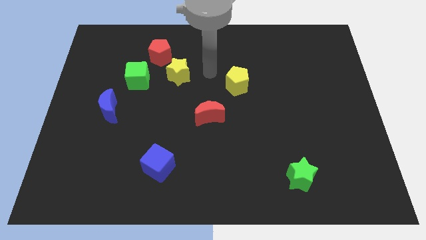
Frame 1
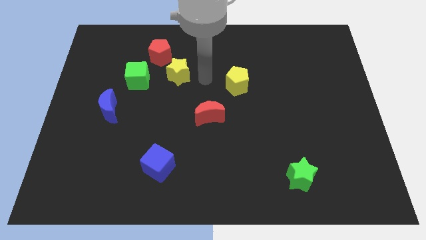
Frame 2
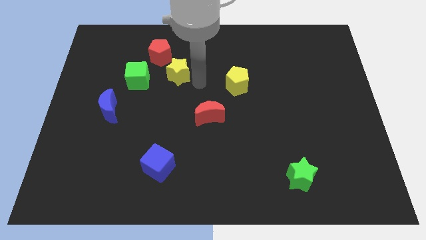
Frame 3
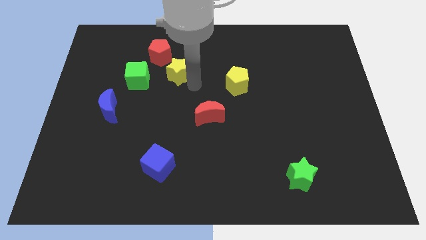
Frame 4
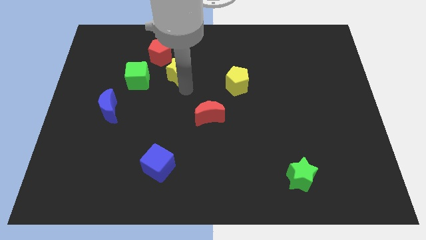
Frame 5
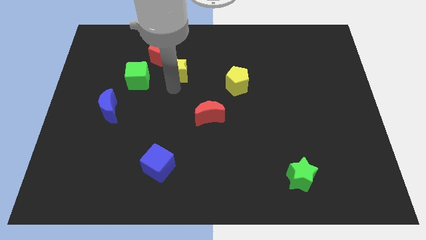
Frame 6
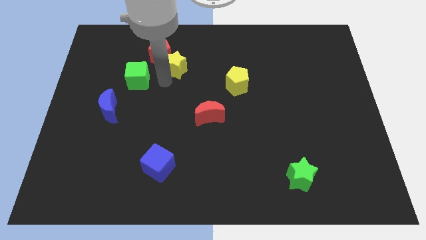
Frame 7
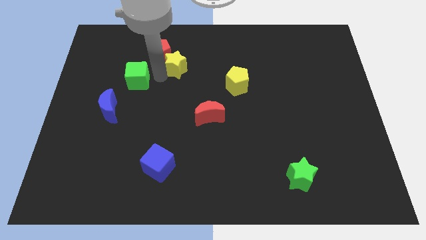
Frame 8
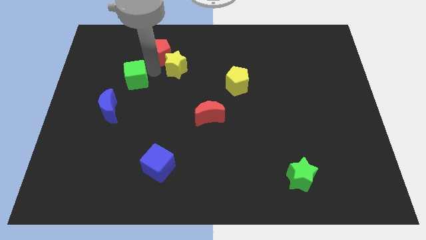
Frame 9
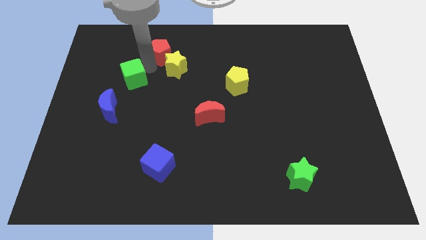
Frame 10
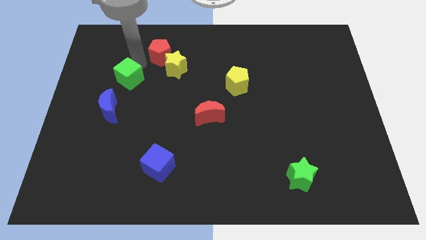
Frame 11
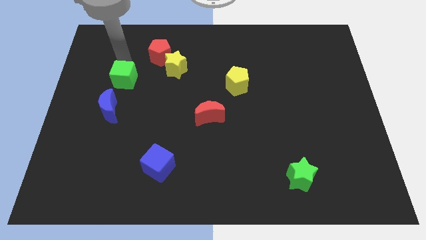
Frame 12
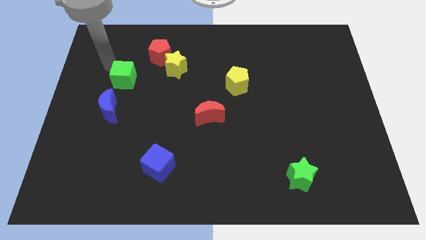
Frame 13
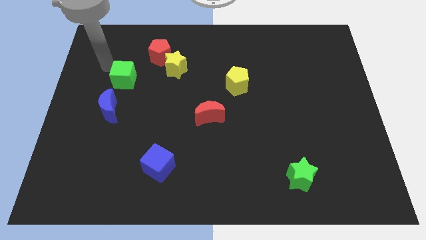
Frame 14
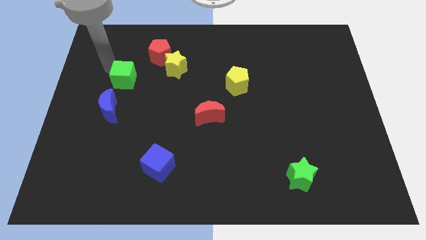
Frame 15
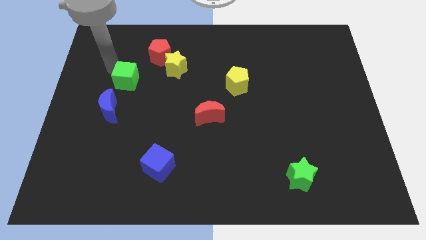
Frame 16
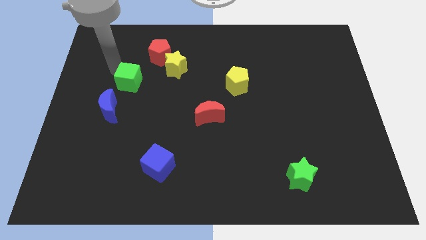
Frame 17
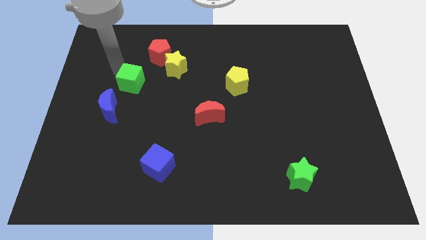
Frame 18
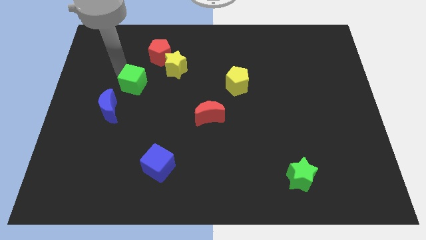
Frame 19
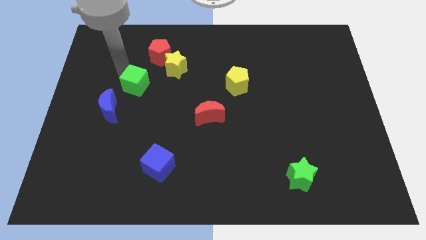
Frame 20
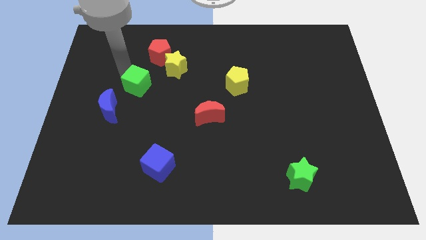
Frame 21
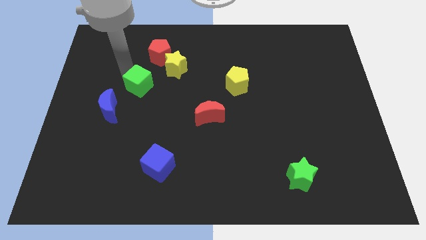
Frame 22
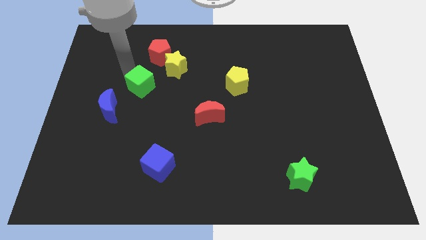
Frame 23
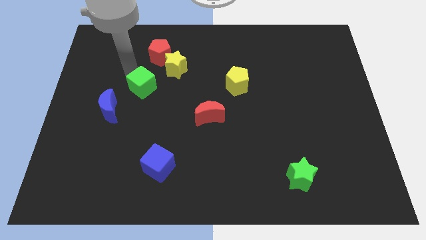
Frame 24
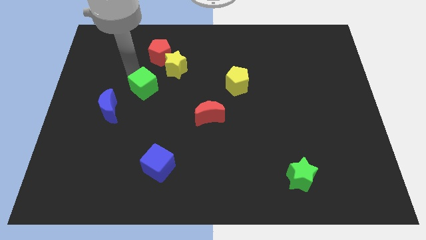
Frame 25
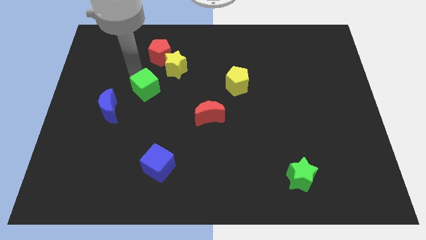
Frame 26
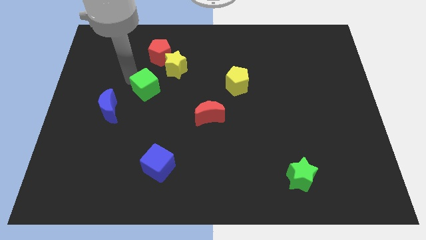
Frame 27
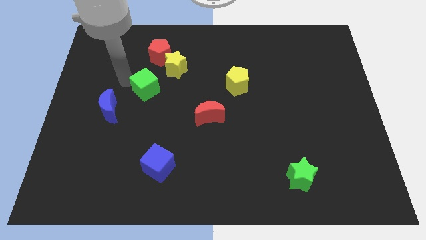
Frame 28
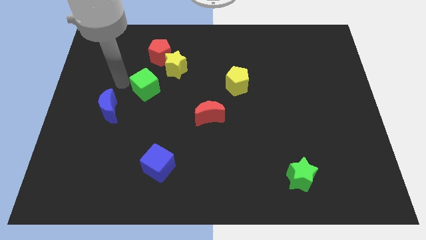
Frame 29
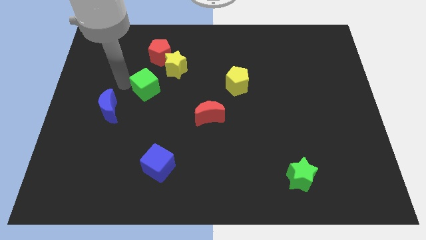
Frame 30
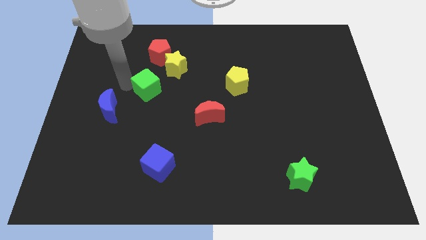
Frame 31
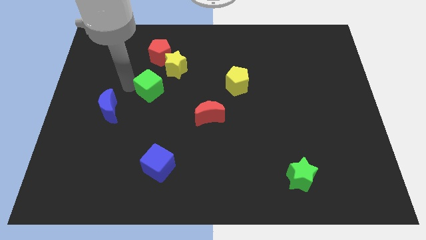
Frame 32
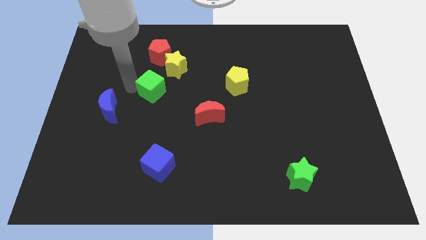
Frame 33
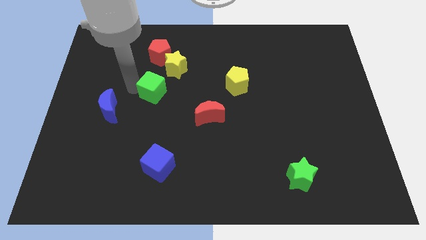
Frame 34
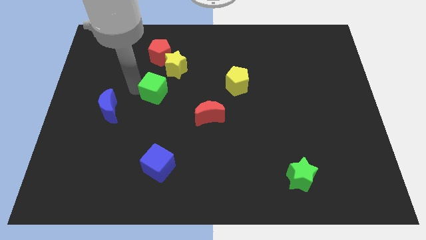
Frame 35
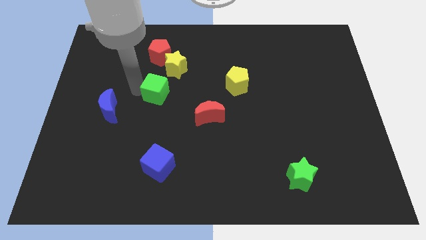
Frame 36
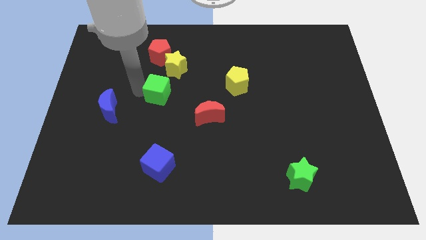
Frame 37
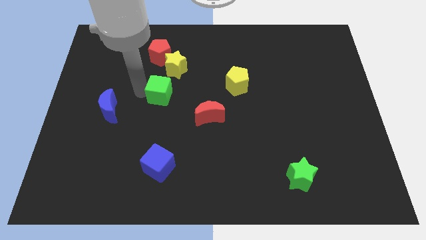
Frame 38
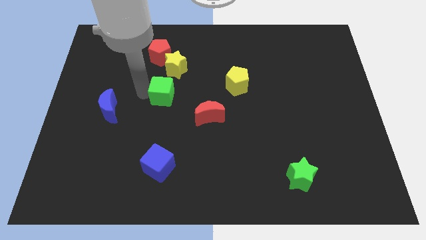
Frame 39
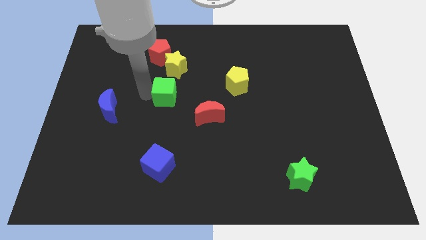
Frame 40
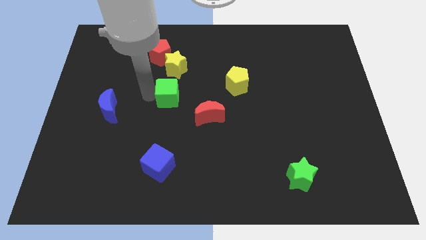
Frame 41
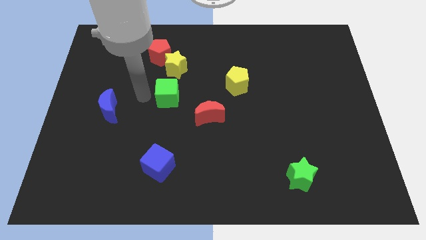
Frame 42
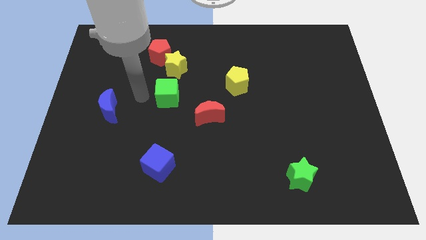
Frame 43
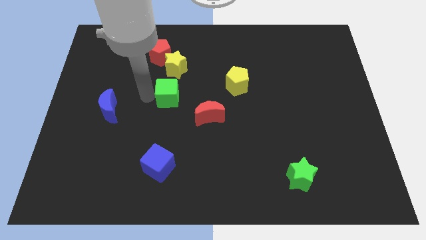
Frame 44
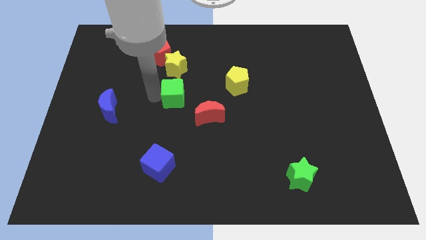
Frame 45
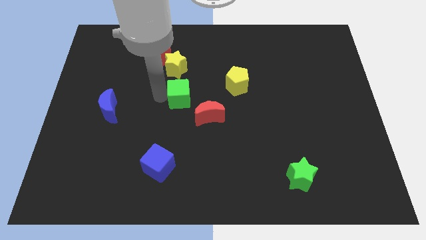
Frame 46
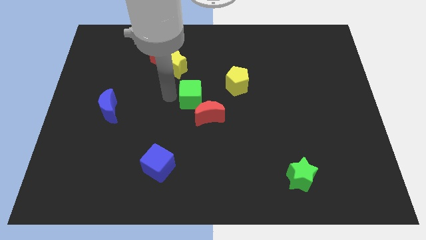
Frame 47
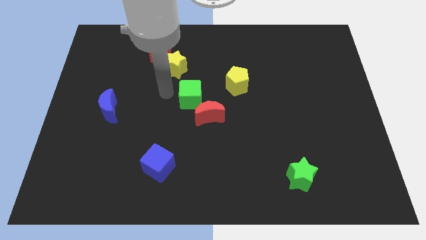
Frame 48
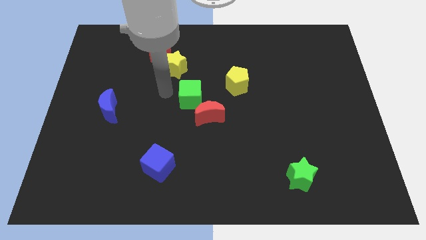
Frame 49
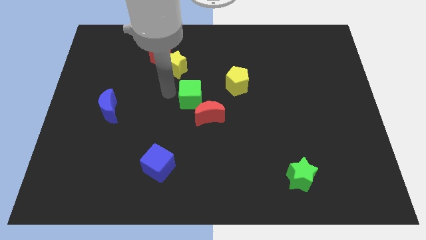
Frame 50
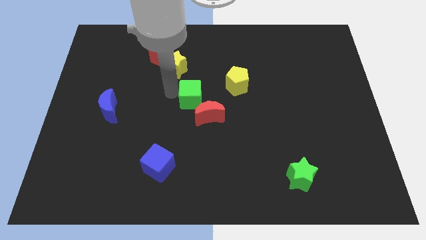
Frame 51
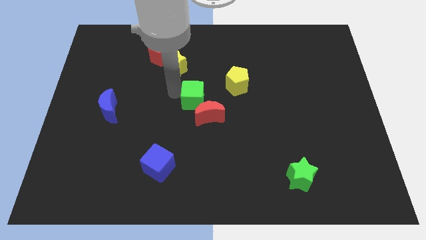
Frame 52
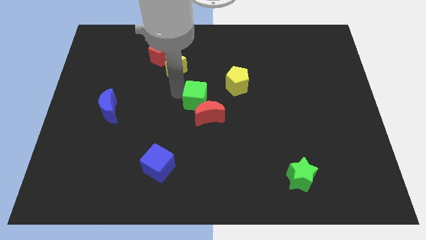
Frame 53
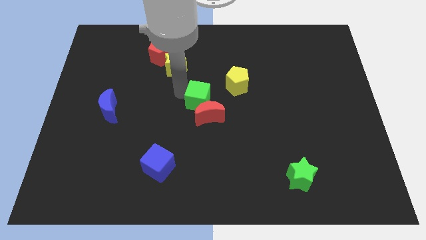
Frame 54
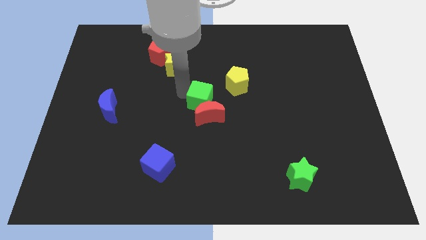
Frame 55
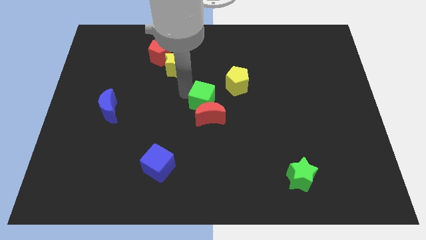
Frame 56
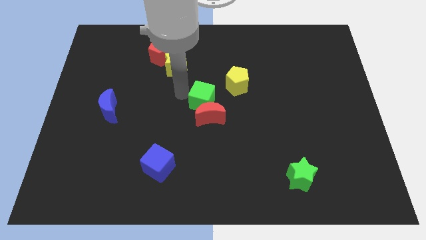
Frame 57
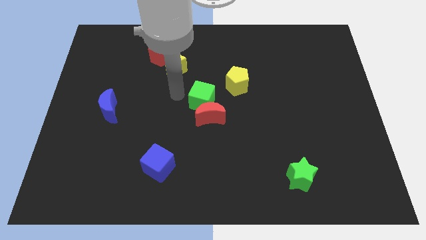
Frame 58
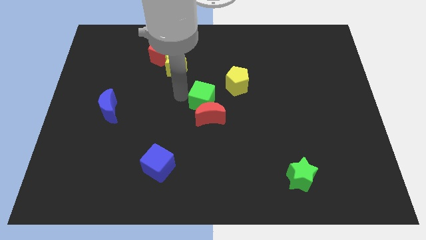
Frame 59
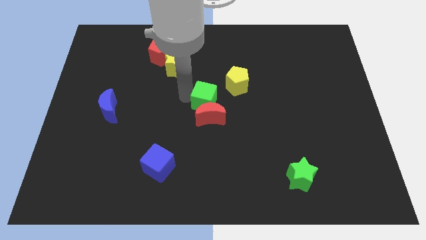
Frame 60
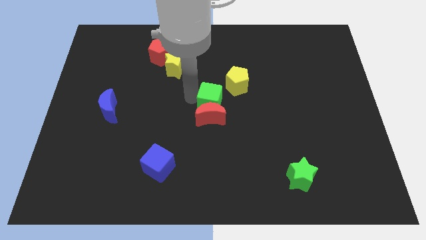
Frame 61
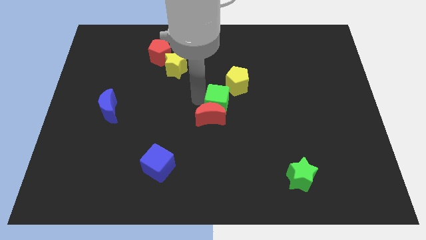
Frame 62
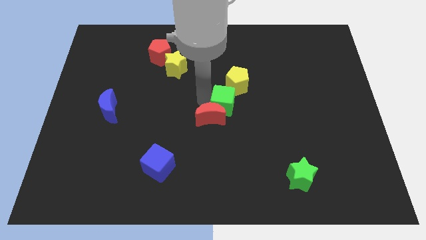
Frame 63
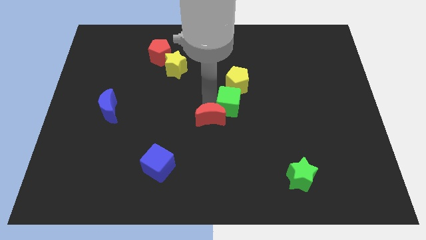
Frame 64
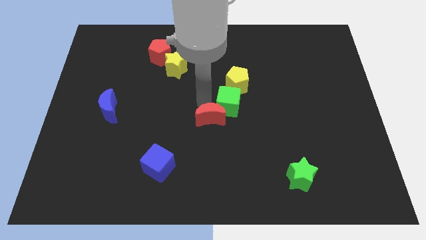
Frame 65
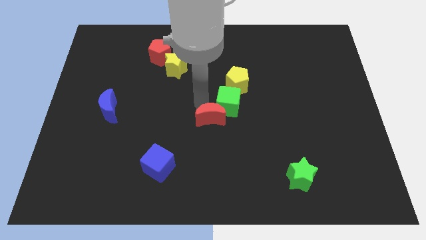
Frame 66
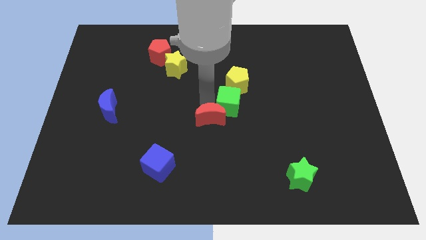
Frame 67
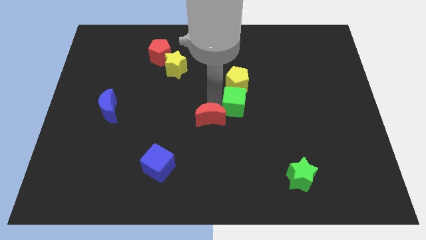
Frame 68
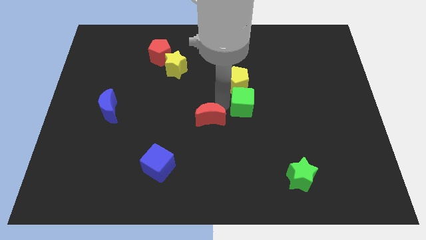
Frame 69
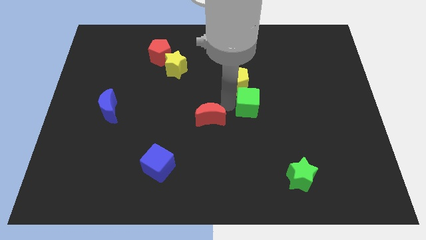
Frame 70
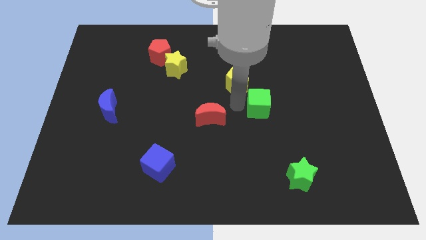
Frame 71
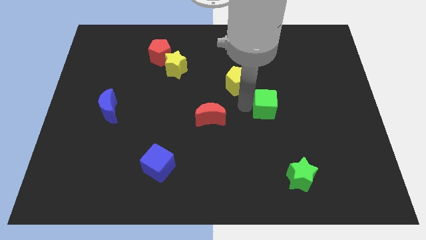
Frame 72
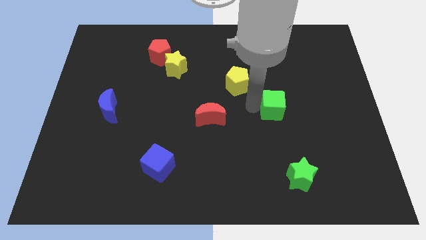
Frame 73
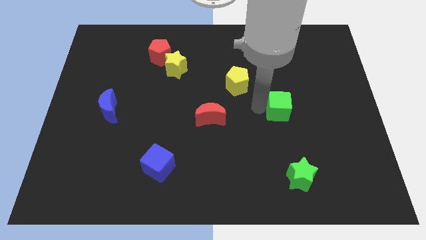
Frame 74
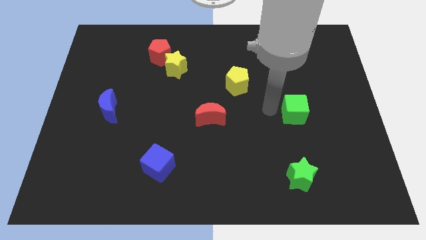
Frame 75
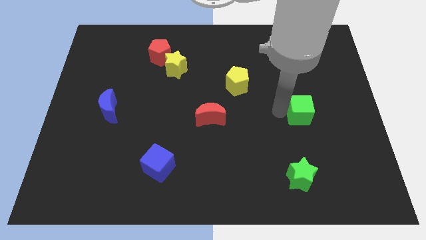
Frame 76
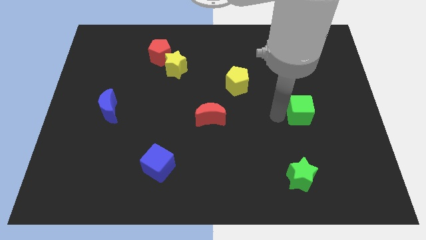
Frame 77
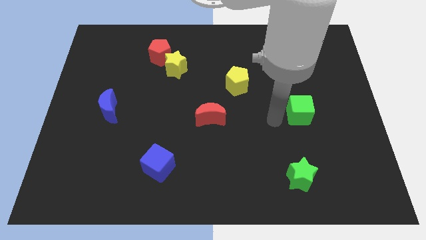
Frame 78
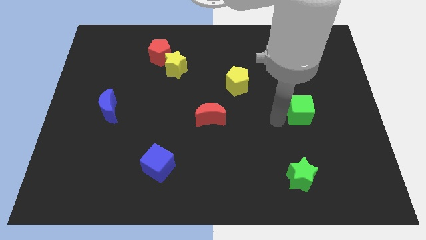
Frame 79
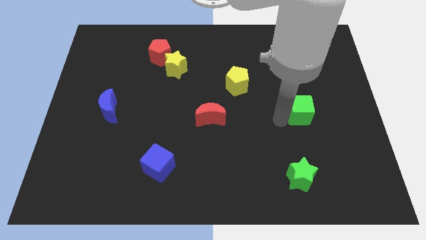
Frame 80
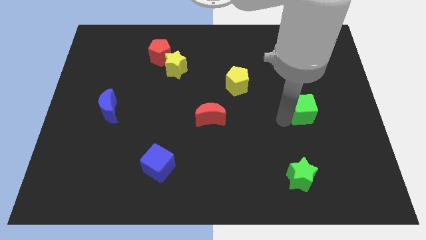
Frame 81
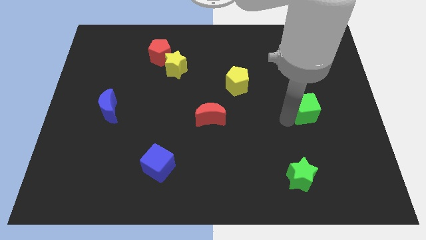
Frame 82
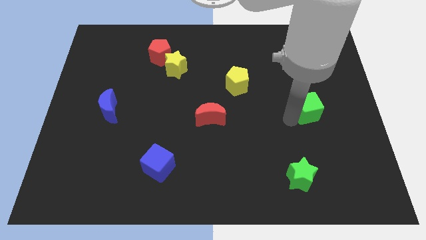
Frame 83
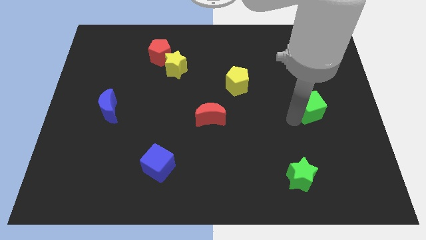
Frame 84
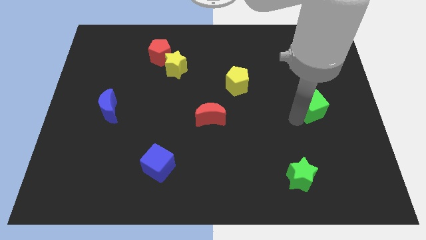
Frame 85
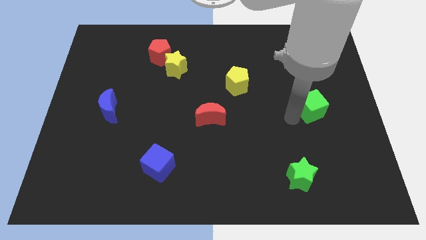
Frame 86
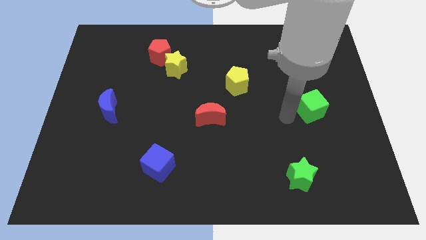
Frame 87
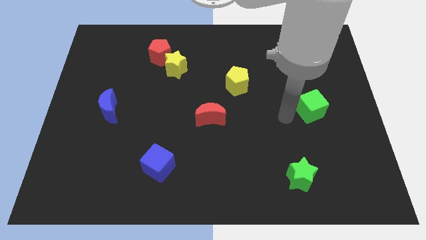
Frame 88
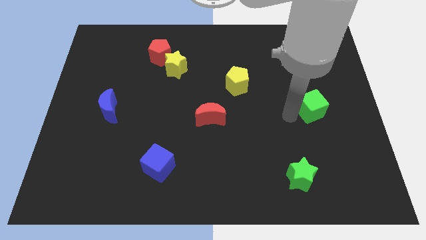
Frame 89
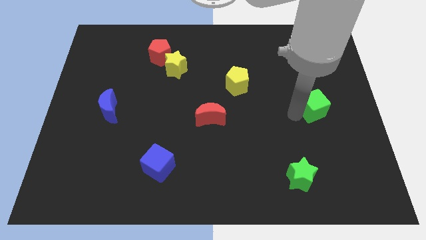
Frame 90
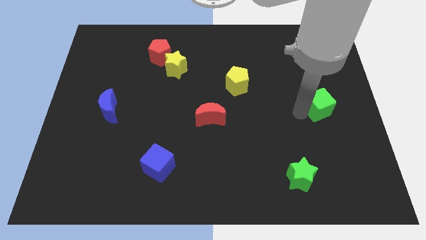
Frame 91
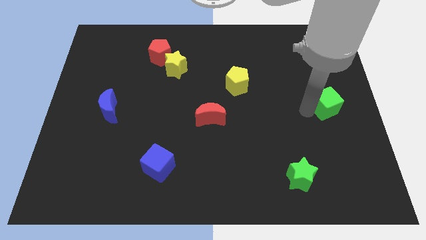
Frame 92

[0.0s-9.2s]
move the green cube to the right side of the board
